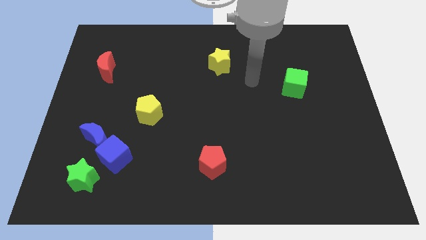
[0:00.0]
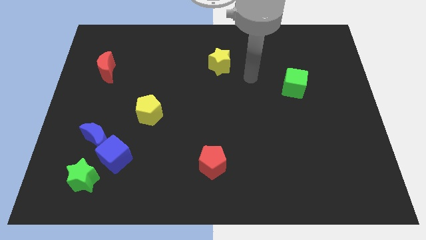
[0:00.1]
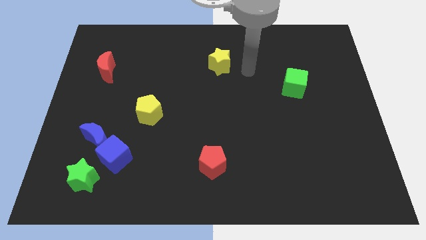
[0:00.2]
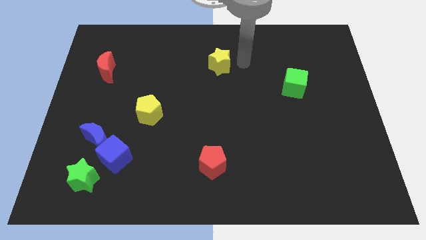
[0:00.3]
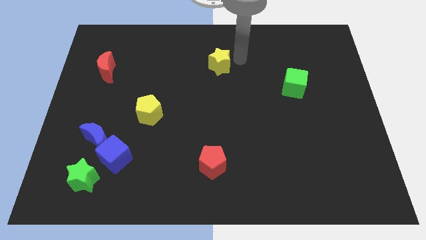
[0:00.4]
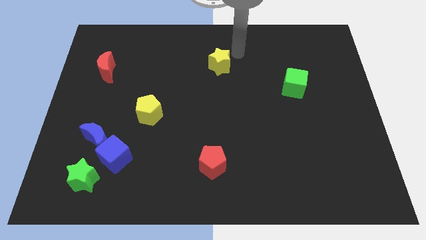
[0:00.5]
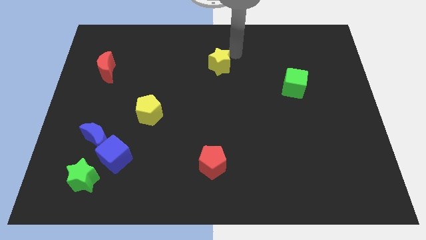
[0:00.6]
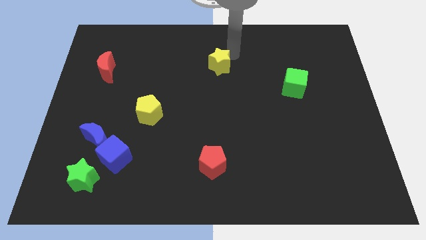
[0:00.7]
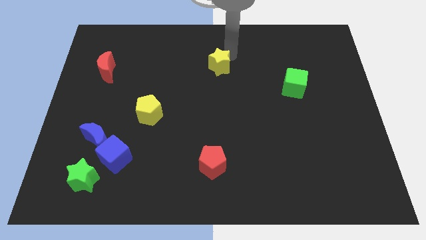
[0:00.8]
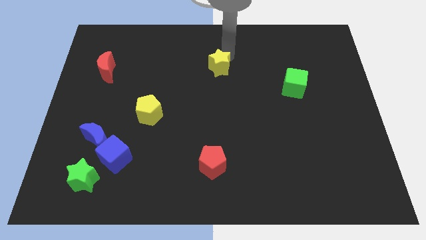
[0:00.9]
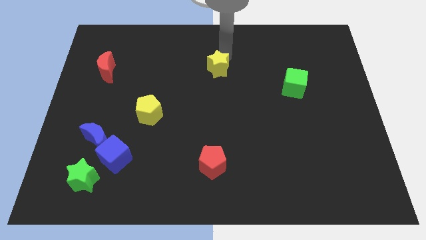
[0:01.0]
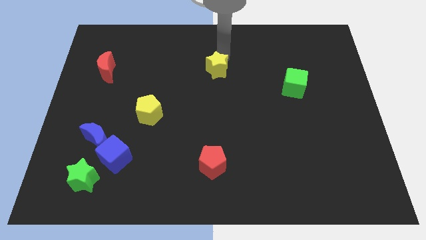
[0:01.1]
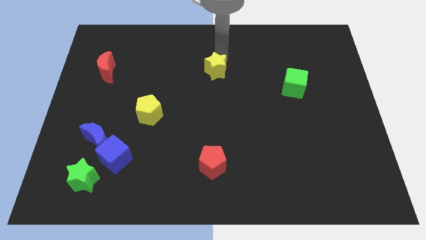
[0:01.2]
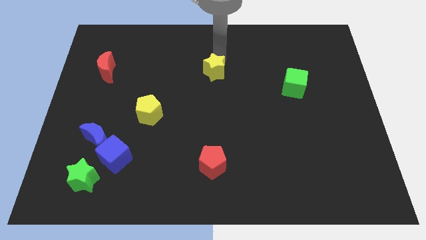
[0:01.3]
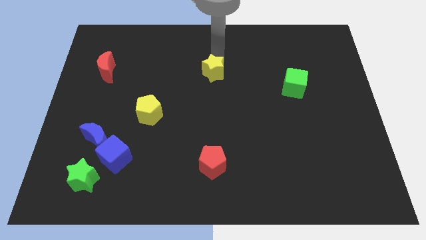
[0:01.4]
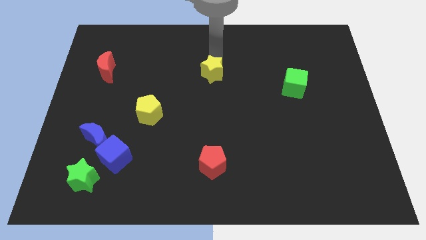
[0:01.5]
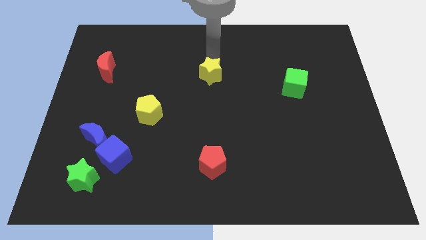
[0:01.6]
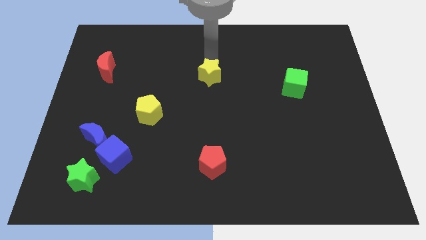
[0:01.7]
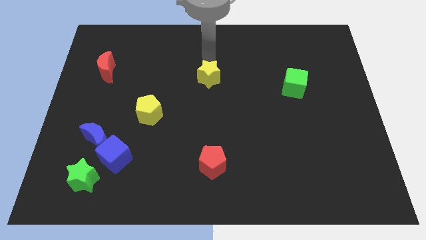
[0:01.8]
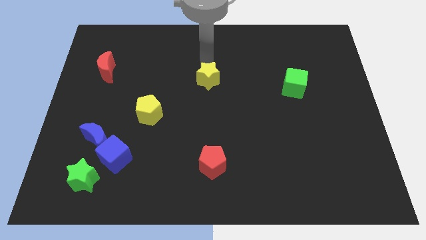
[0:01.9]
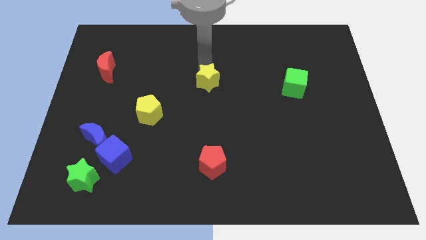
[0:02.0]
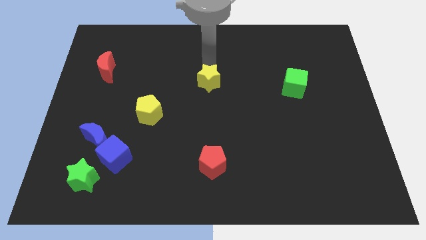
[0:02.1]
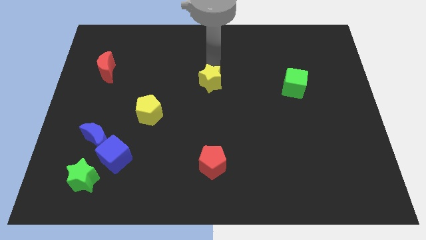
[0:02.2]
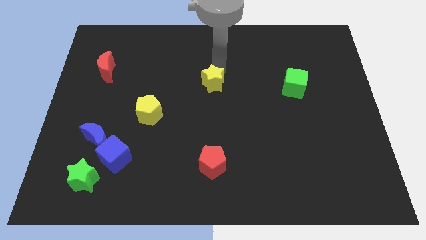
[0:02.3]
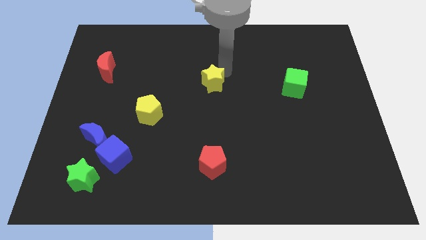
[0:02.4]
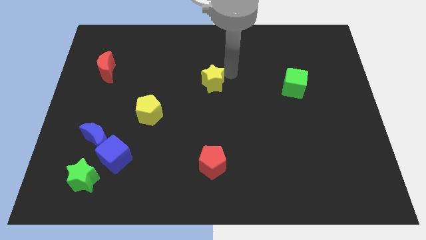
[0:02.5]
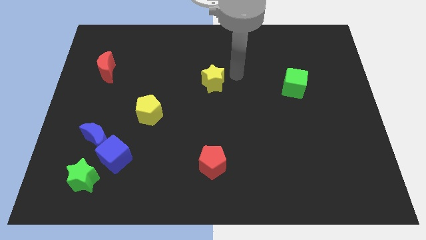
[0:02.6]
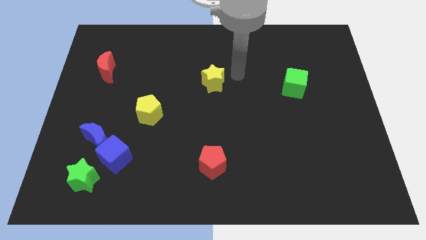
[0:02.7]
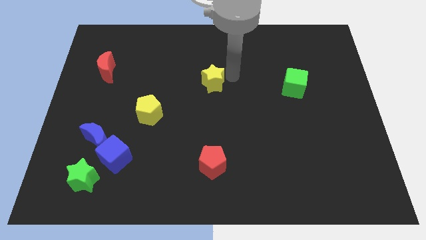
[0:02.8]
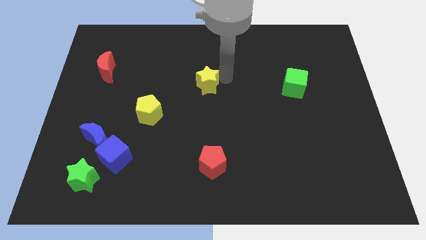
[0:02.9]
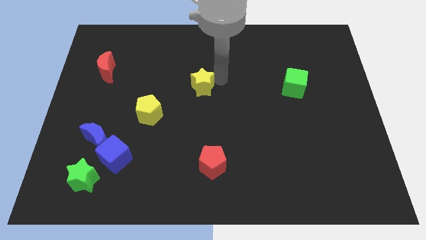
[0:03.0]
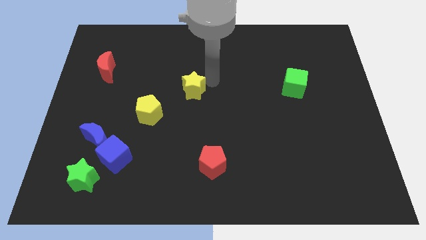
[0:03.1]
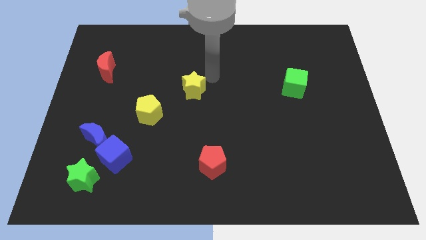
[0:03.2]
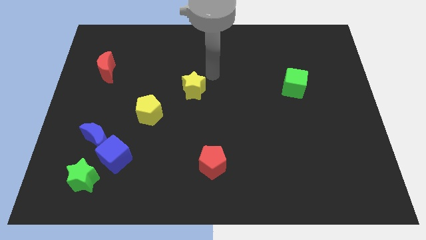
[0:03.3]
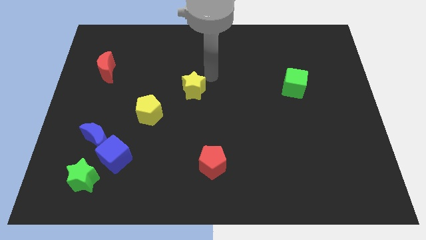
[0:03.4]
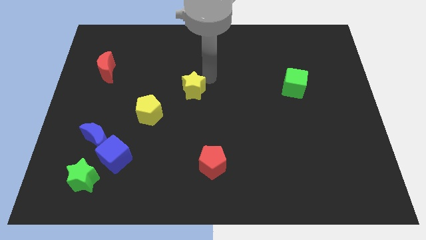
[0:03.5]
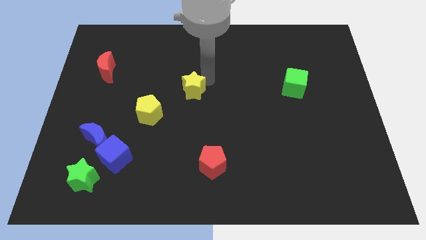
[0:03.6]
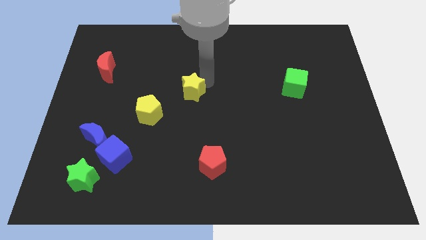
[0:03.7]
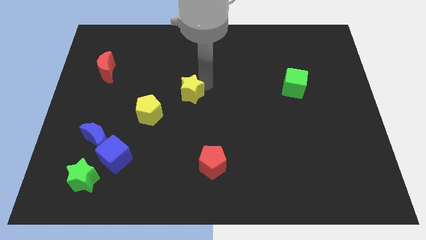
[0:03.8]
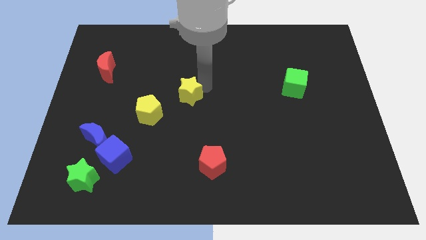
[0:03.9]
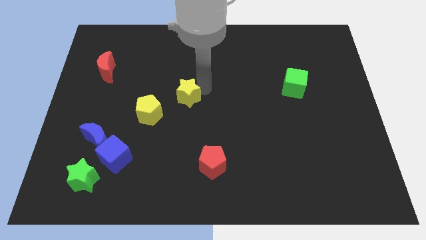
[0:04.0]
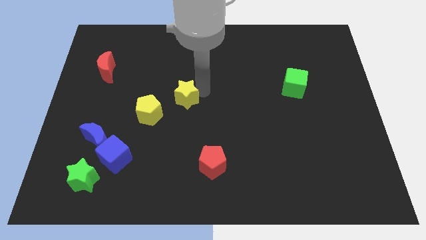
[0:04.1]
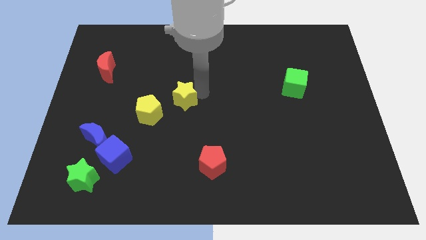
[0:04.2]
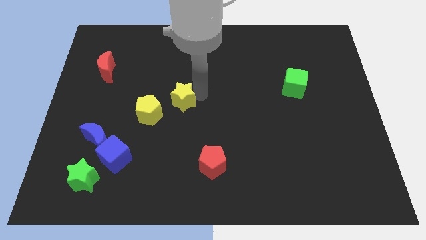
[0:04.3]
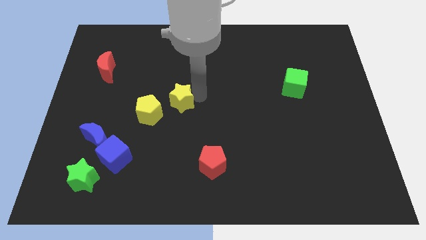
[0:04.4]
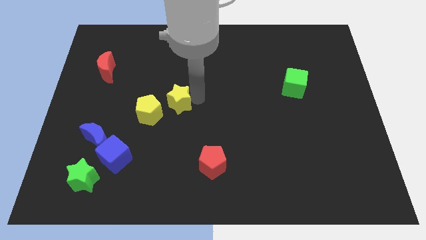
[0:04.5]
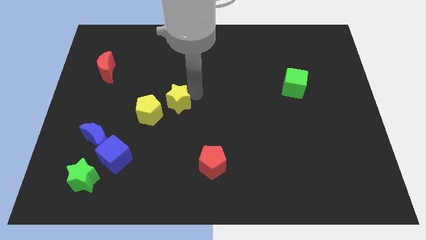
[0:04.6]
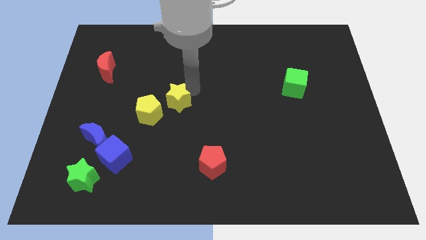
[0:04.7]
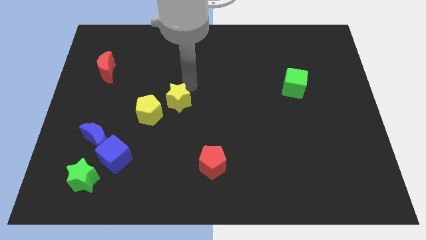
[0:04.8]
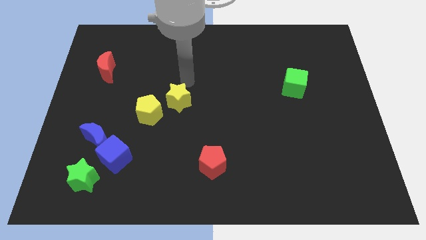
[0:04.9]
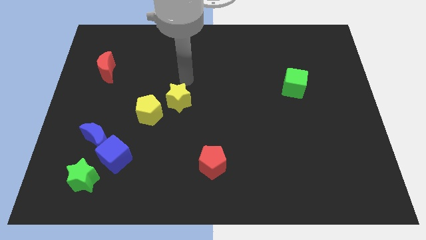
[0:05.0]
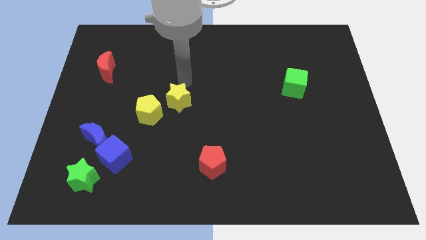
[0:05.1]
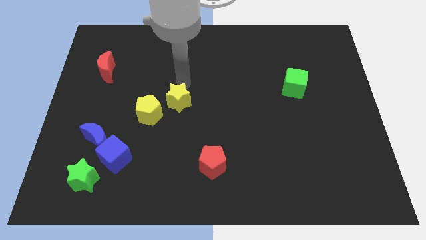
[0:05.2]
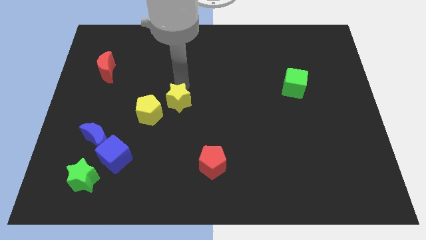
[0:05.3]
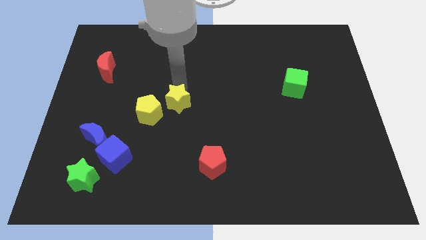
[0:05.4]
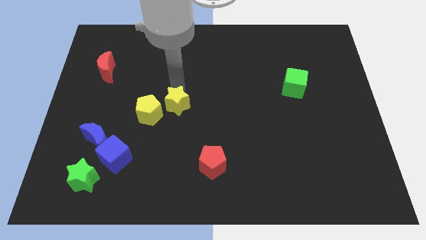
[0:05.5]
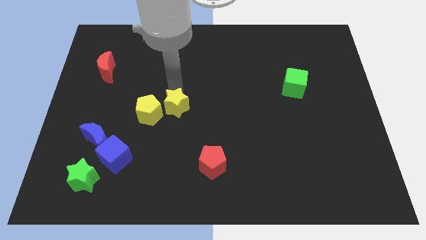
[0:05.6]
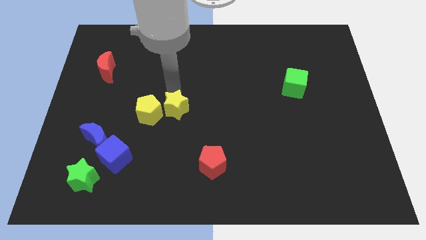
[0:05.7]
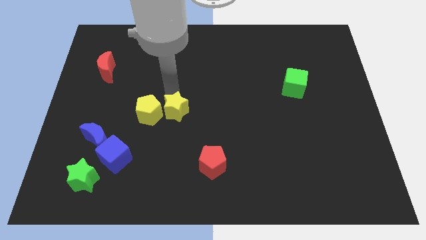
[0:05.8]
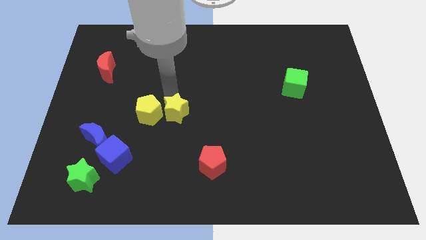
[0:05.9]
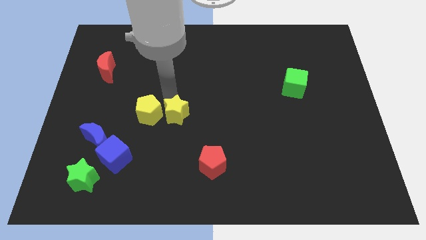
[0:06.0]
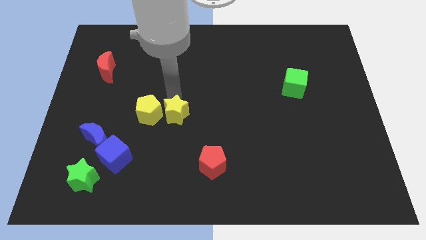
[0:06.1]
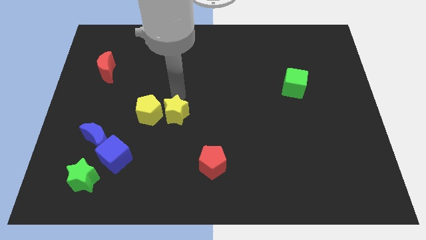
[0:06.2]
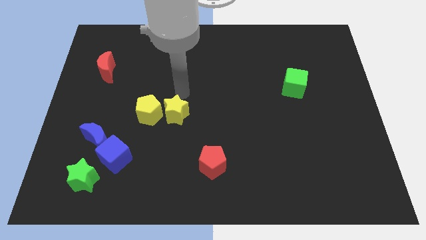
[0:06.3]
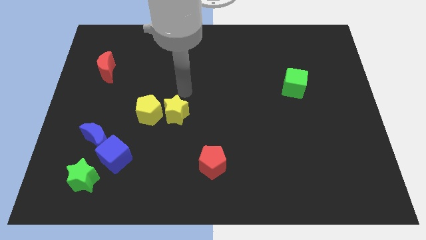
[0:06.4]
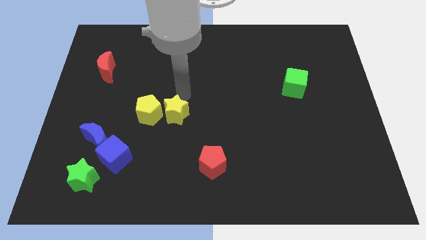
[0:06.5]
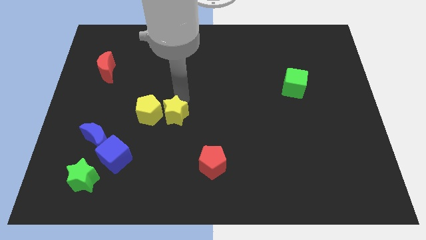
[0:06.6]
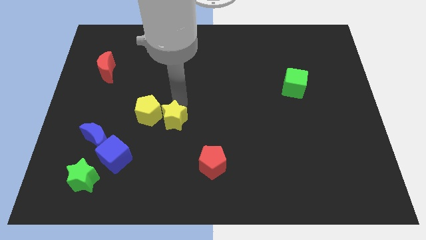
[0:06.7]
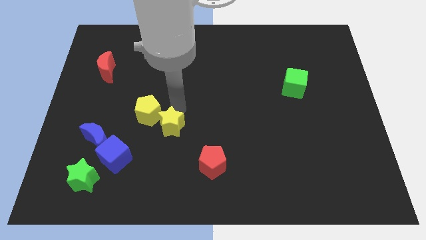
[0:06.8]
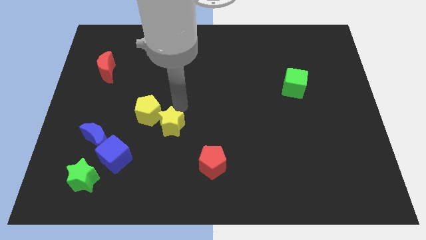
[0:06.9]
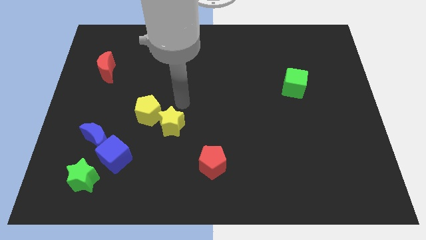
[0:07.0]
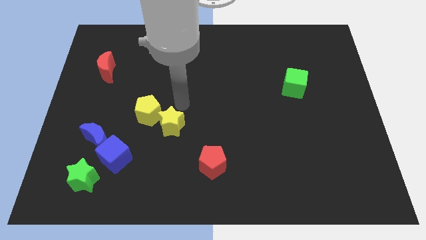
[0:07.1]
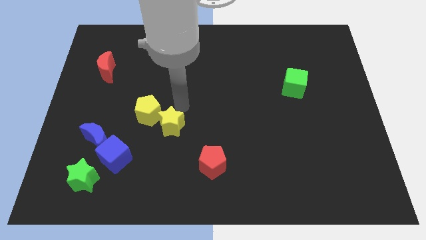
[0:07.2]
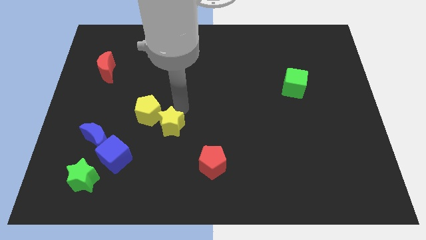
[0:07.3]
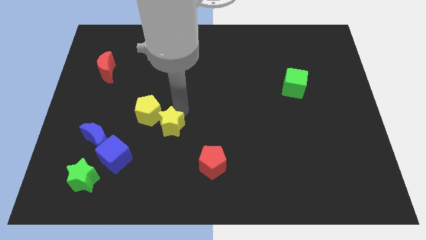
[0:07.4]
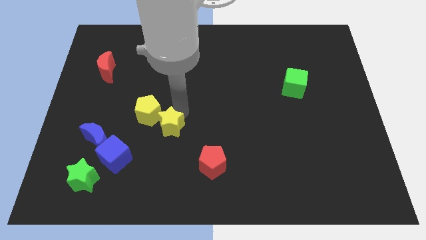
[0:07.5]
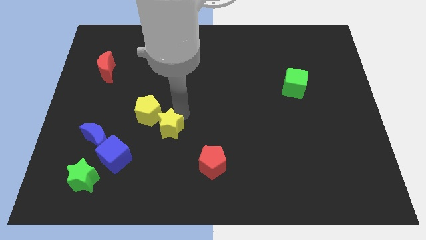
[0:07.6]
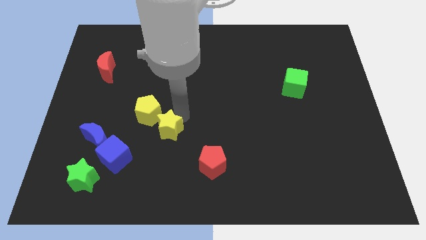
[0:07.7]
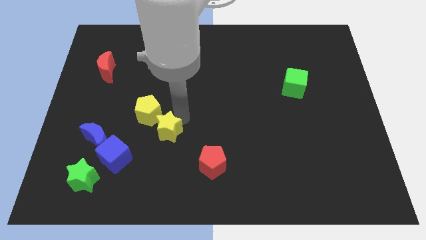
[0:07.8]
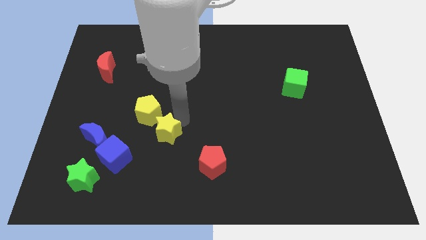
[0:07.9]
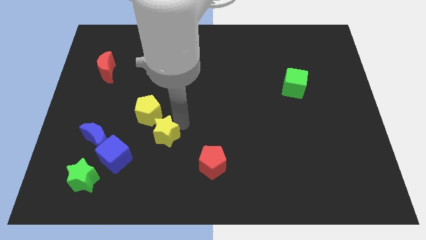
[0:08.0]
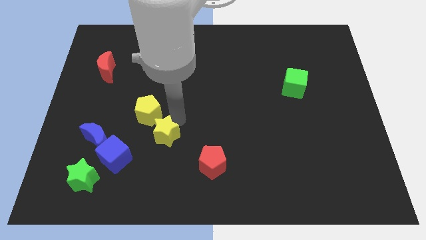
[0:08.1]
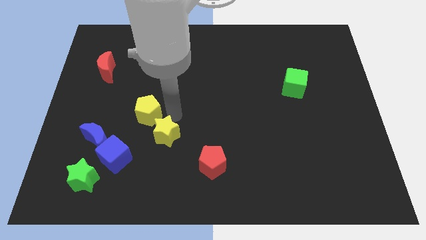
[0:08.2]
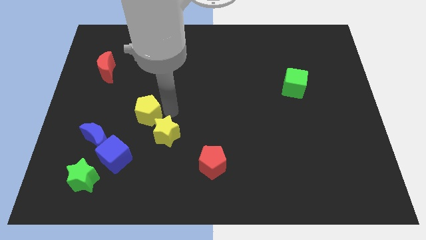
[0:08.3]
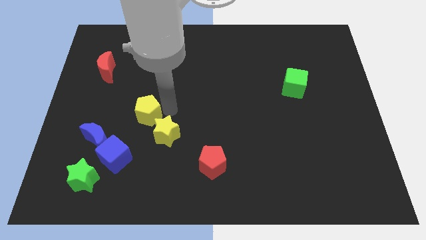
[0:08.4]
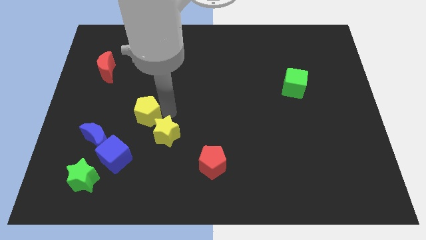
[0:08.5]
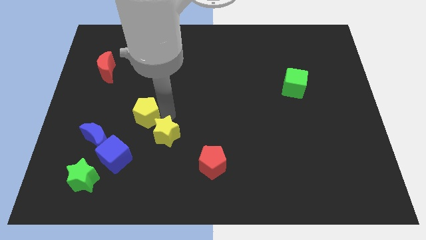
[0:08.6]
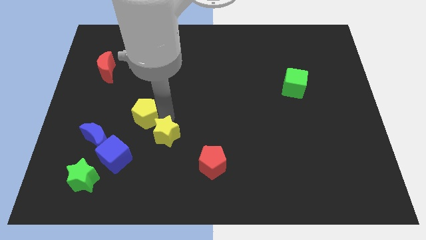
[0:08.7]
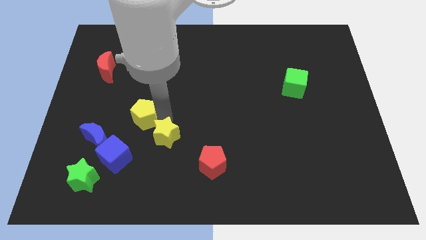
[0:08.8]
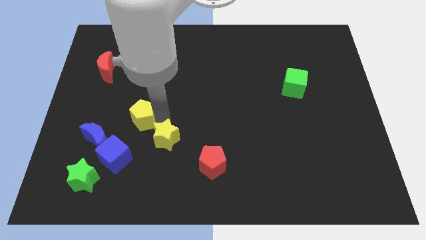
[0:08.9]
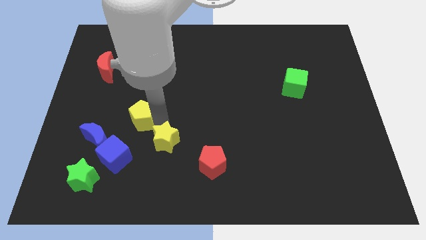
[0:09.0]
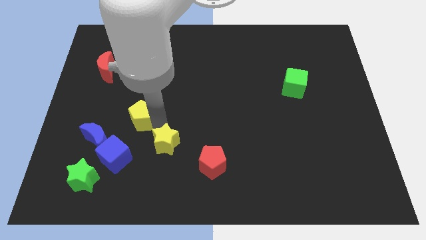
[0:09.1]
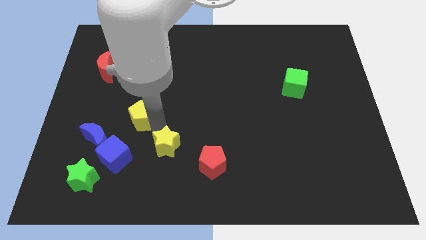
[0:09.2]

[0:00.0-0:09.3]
push the yellow star to the left side of the red pentagon
